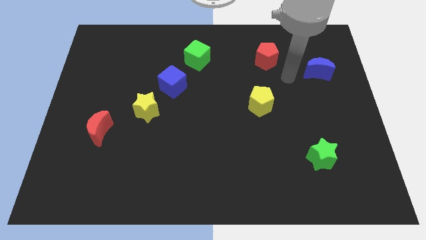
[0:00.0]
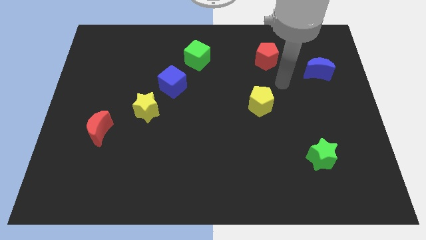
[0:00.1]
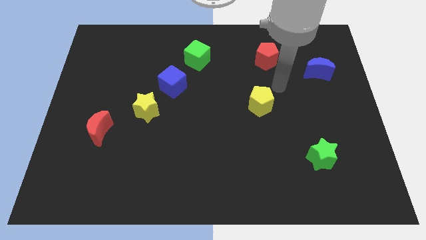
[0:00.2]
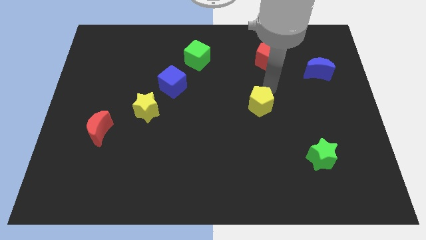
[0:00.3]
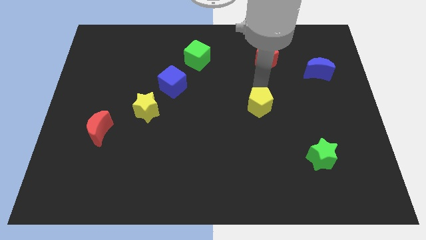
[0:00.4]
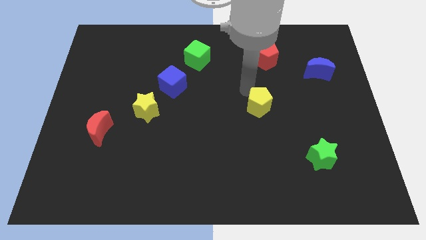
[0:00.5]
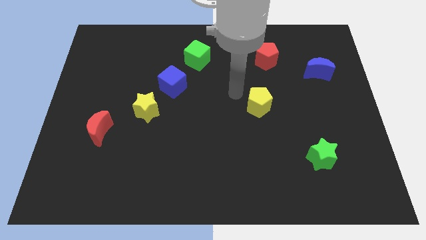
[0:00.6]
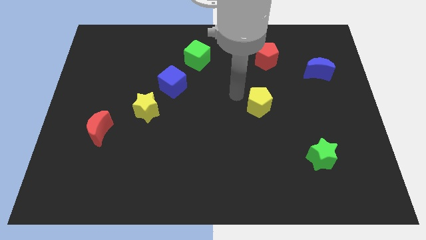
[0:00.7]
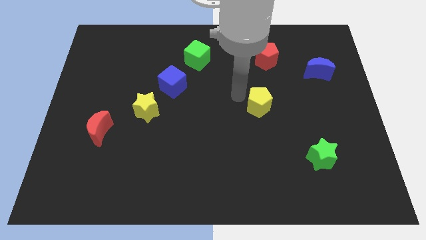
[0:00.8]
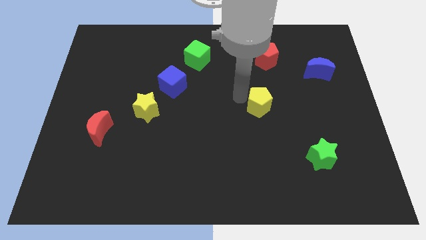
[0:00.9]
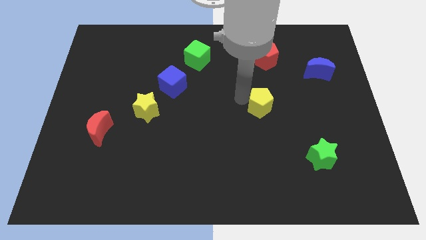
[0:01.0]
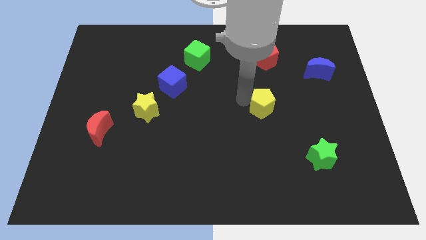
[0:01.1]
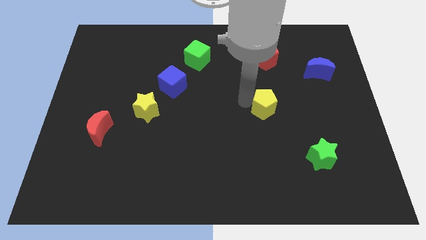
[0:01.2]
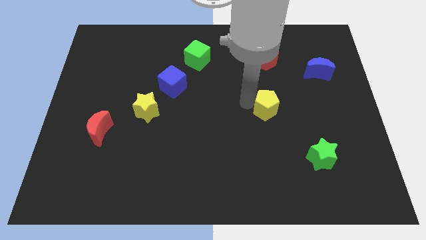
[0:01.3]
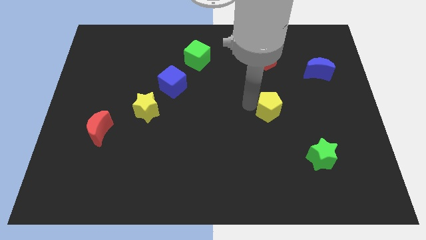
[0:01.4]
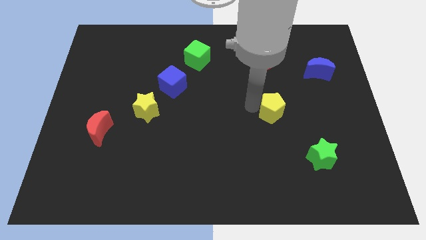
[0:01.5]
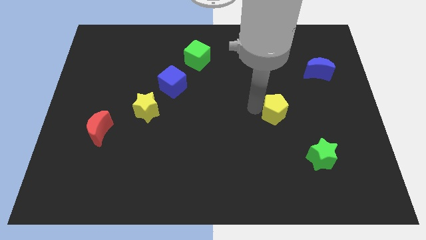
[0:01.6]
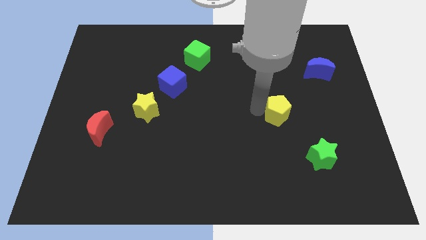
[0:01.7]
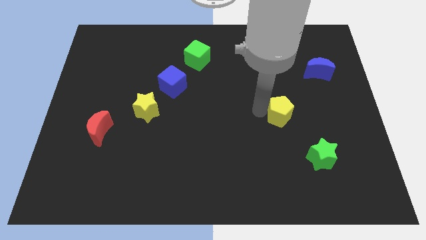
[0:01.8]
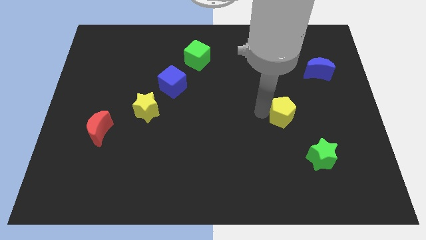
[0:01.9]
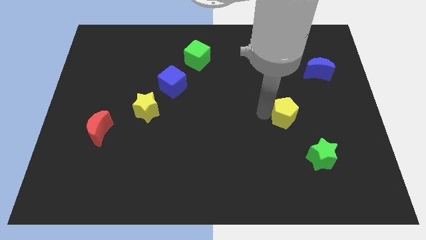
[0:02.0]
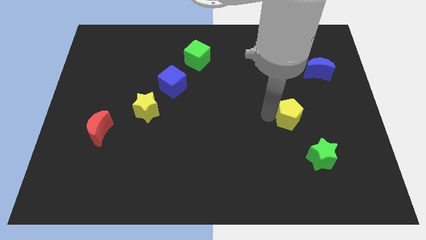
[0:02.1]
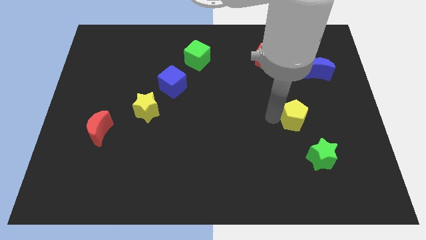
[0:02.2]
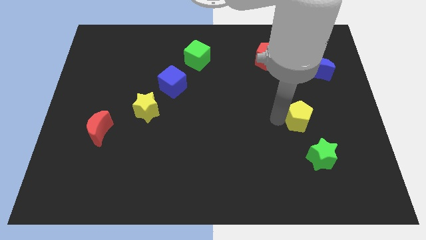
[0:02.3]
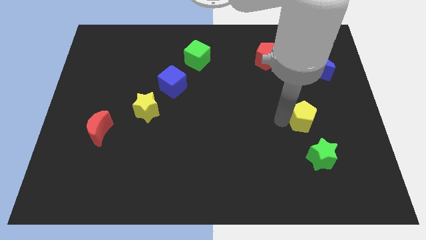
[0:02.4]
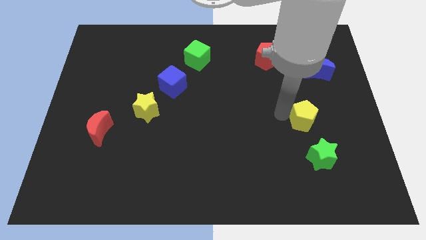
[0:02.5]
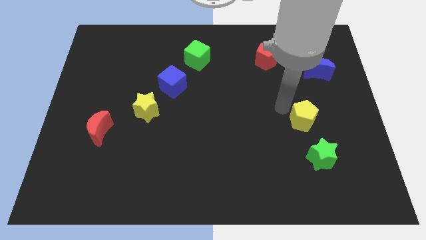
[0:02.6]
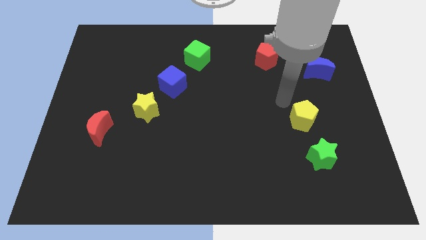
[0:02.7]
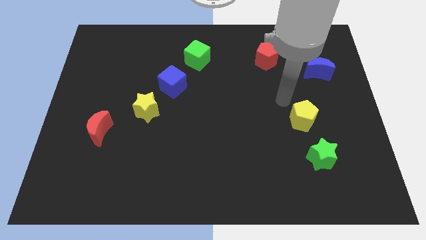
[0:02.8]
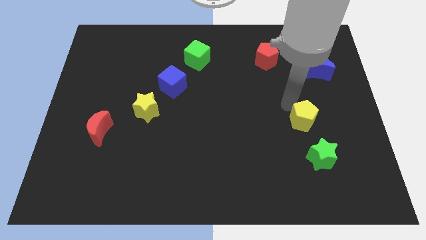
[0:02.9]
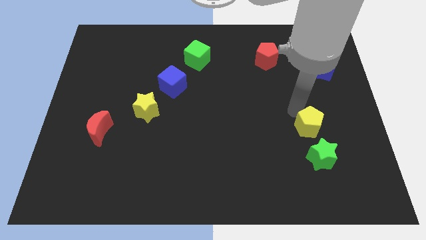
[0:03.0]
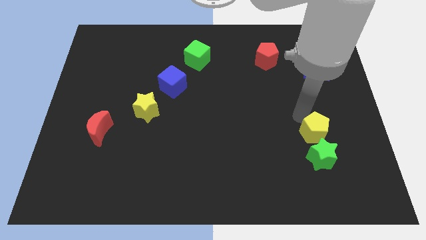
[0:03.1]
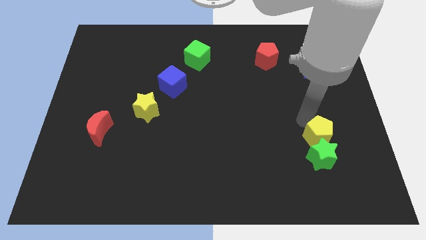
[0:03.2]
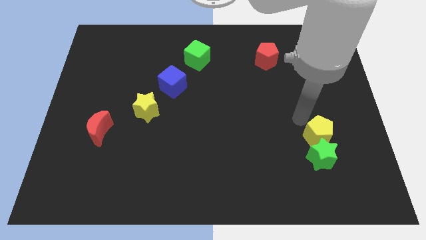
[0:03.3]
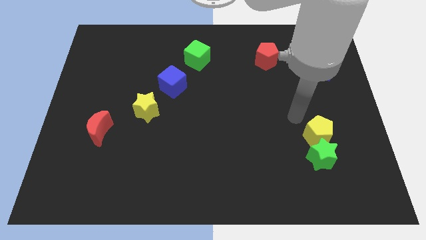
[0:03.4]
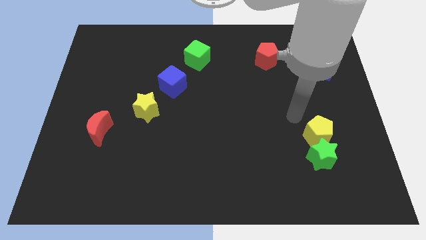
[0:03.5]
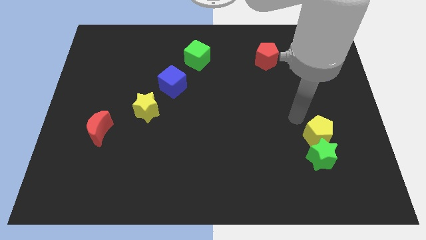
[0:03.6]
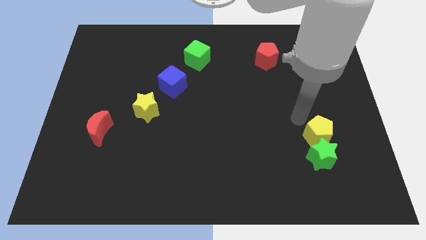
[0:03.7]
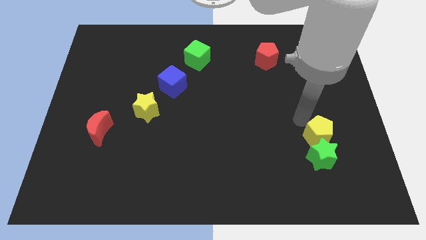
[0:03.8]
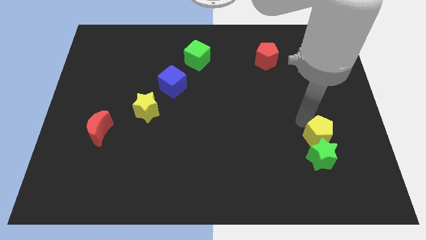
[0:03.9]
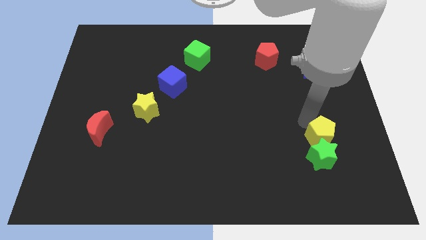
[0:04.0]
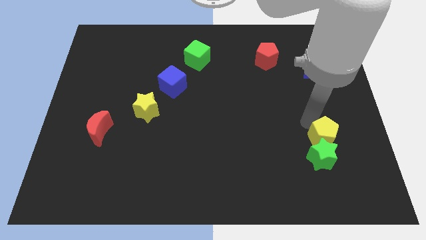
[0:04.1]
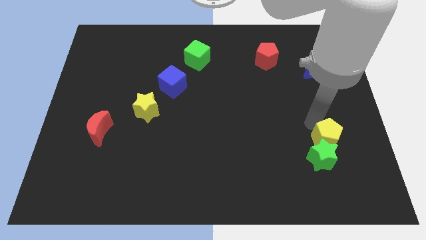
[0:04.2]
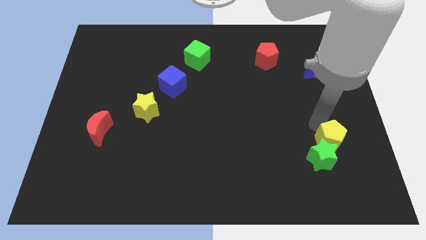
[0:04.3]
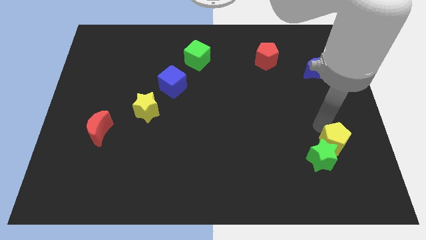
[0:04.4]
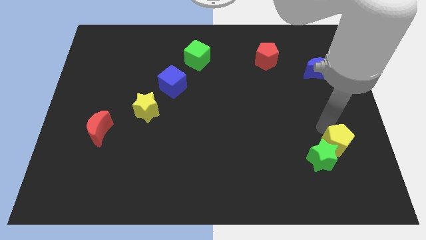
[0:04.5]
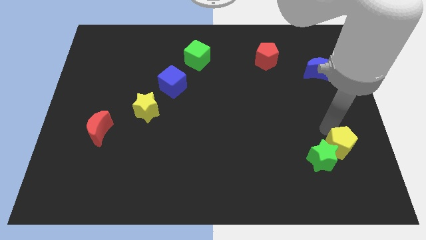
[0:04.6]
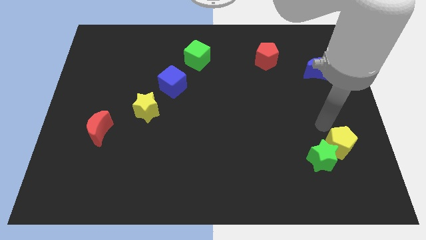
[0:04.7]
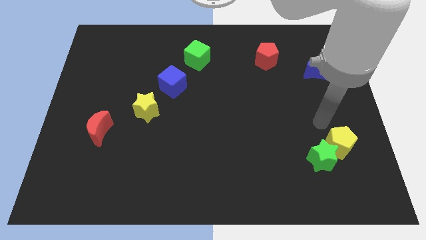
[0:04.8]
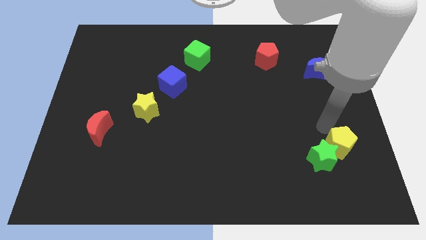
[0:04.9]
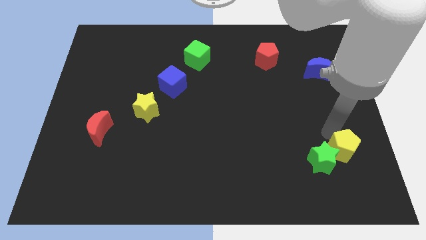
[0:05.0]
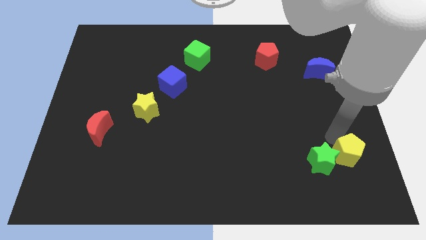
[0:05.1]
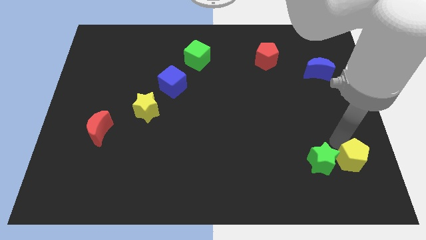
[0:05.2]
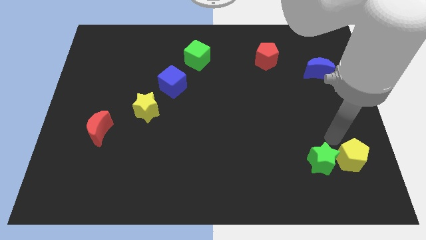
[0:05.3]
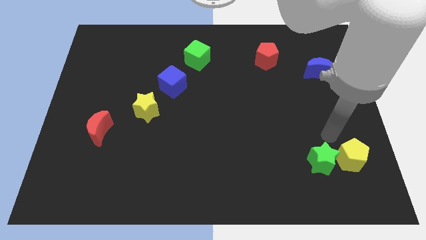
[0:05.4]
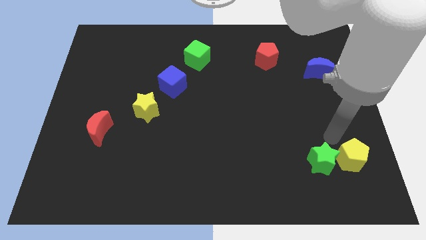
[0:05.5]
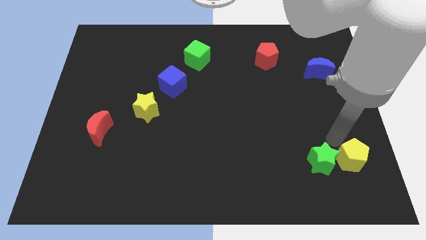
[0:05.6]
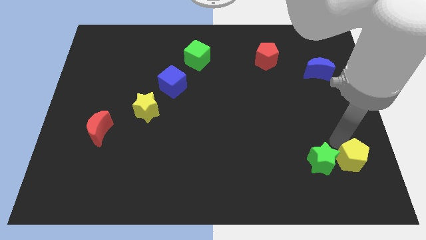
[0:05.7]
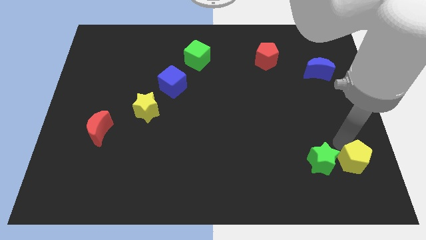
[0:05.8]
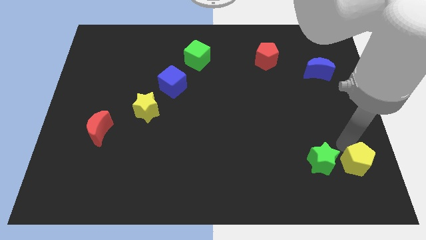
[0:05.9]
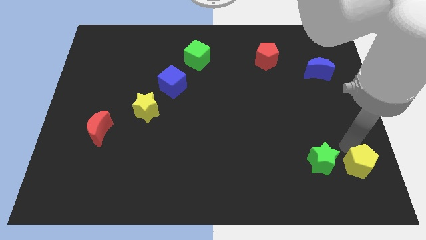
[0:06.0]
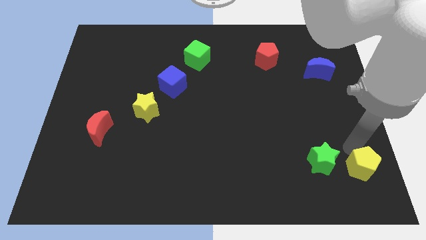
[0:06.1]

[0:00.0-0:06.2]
slide the yellow pentagon to the lower right corner
